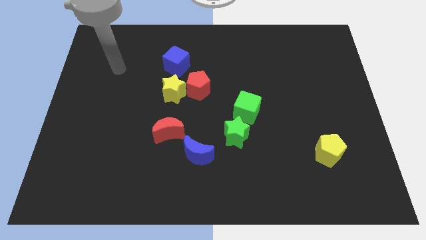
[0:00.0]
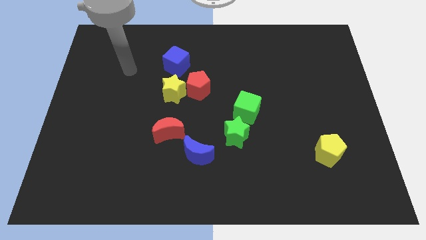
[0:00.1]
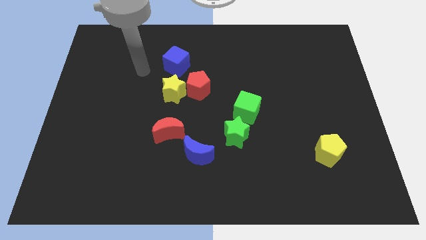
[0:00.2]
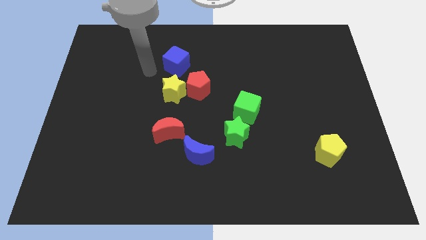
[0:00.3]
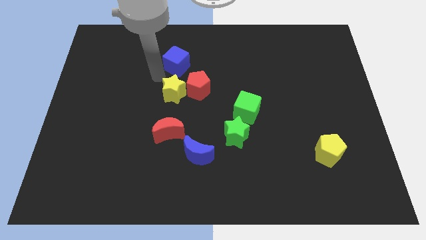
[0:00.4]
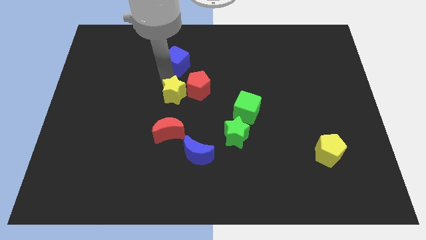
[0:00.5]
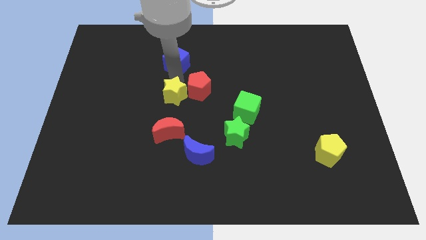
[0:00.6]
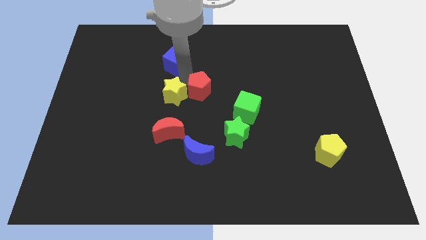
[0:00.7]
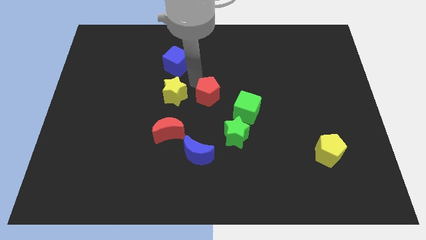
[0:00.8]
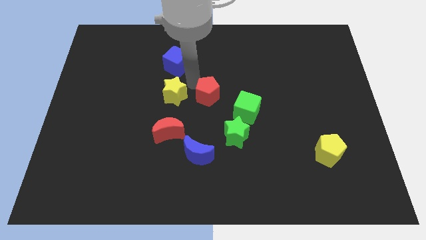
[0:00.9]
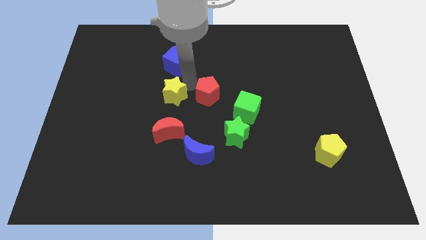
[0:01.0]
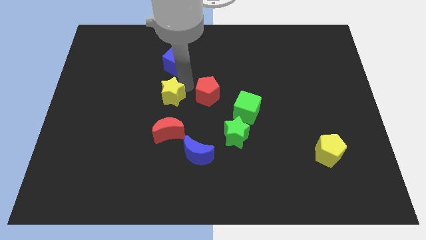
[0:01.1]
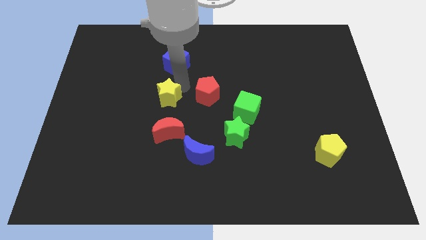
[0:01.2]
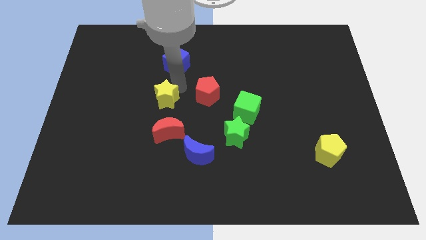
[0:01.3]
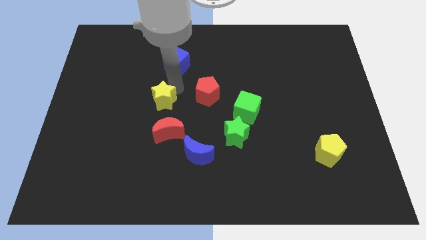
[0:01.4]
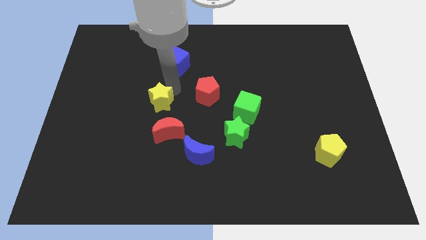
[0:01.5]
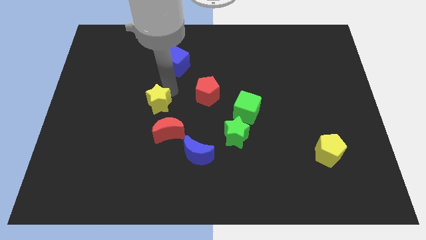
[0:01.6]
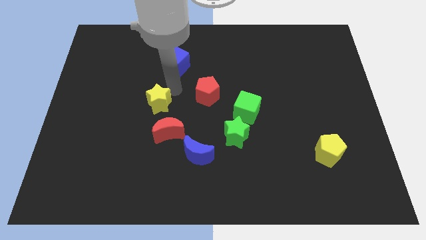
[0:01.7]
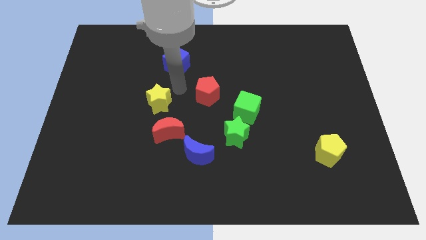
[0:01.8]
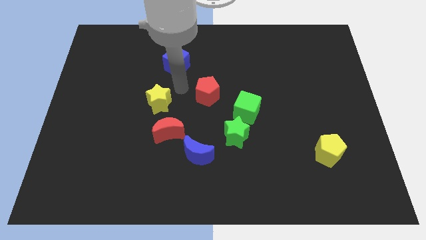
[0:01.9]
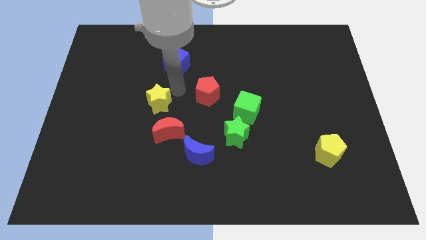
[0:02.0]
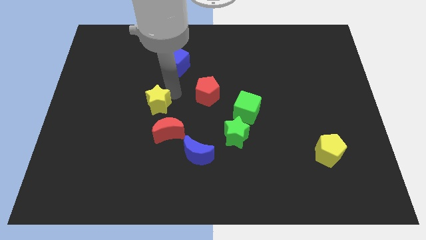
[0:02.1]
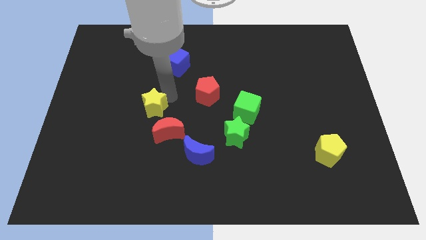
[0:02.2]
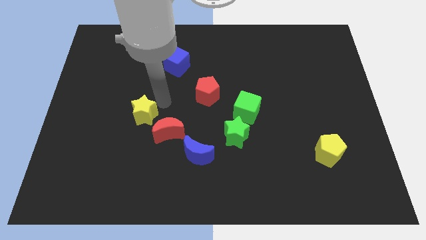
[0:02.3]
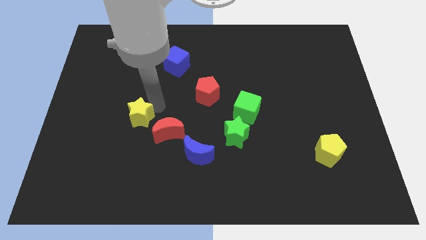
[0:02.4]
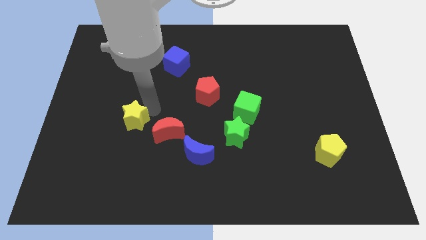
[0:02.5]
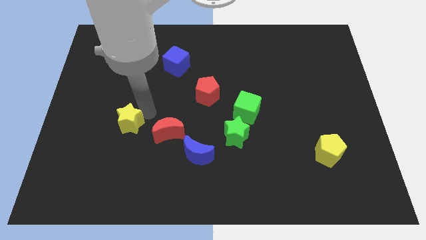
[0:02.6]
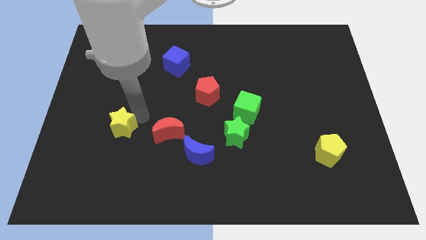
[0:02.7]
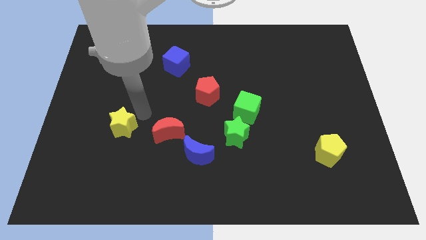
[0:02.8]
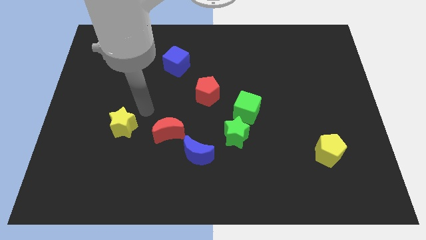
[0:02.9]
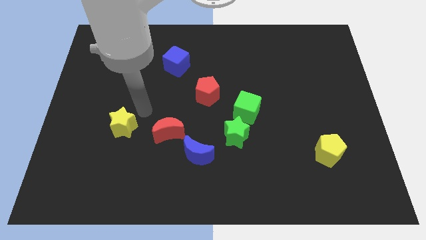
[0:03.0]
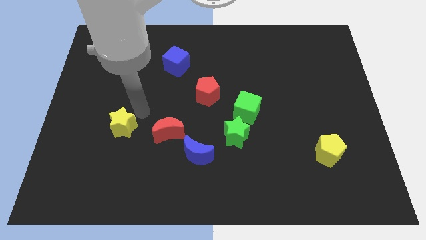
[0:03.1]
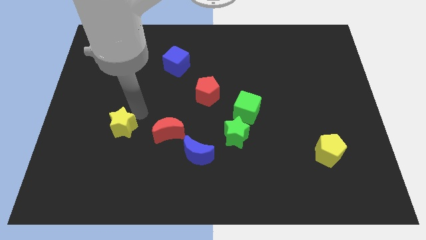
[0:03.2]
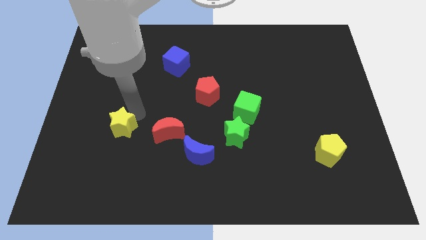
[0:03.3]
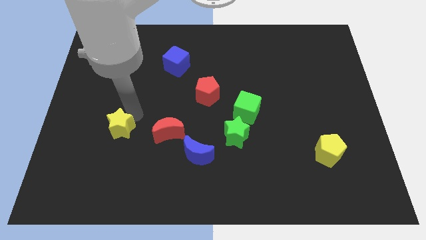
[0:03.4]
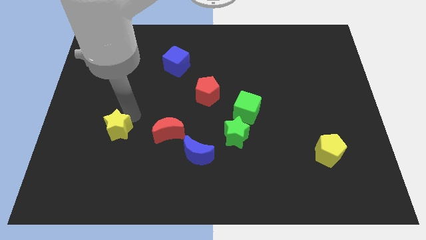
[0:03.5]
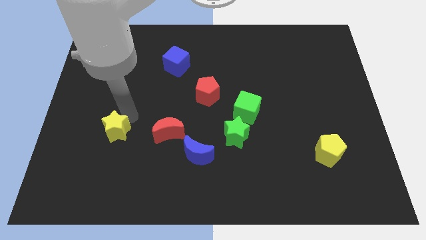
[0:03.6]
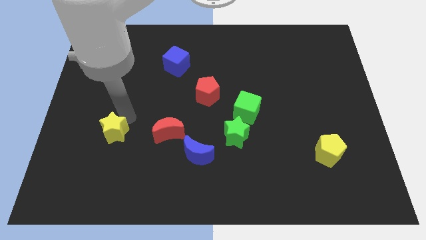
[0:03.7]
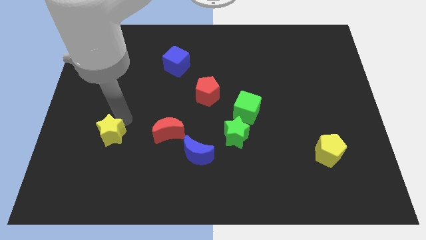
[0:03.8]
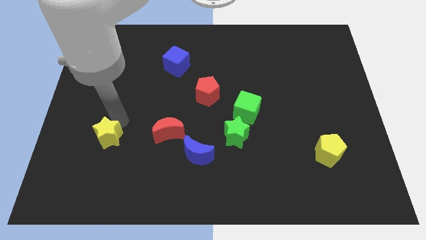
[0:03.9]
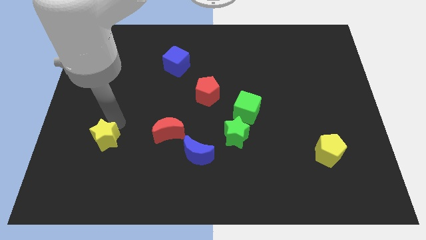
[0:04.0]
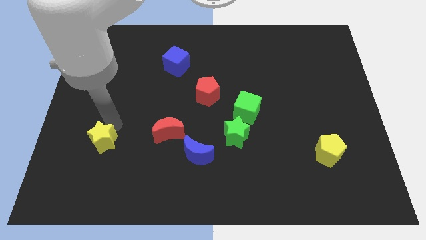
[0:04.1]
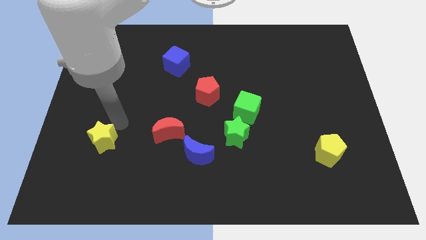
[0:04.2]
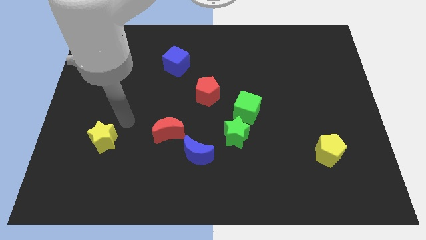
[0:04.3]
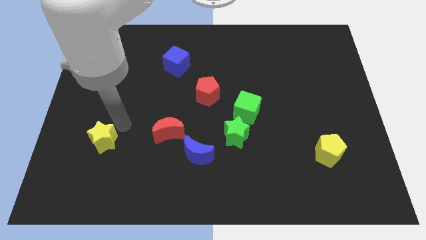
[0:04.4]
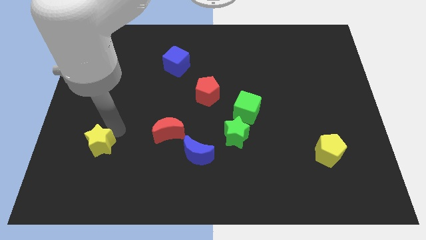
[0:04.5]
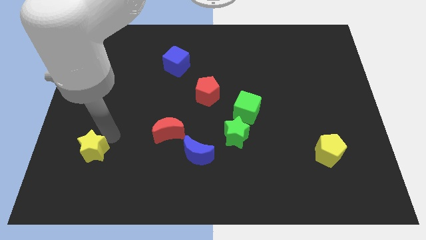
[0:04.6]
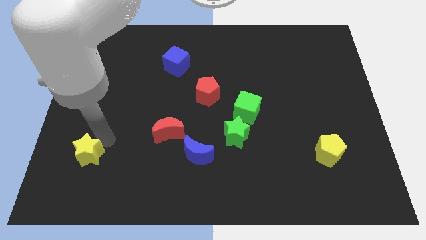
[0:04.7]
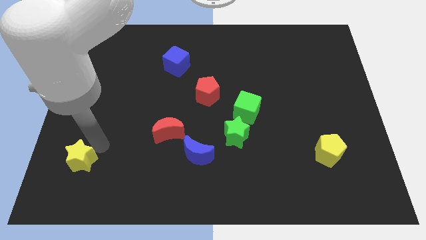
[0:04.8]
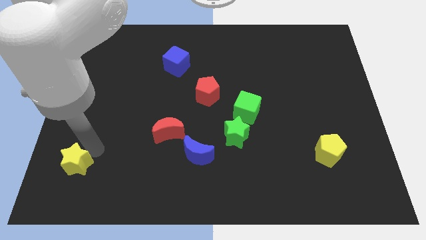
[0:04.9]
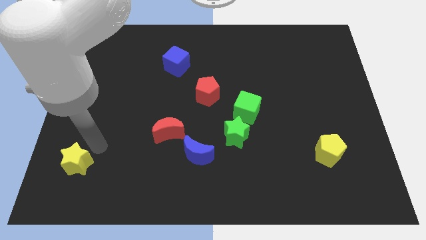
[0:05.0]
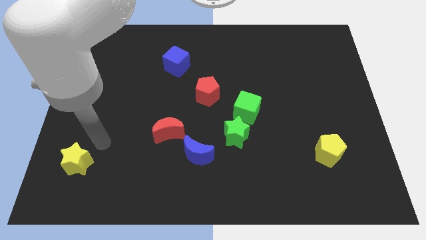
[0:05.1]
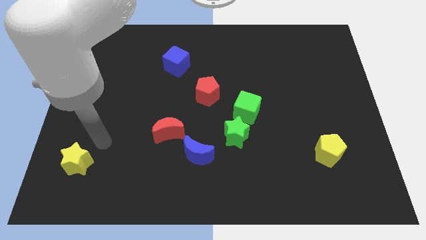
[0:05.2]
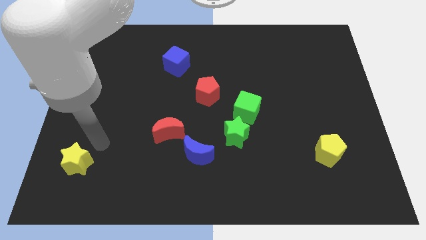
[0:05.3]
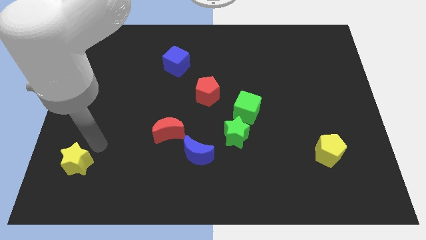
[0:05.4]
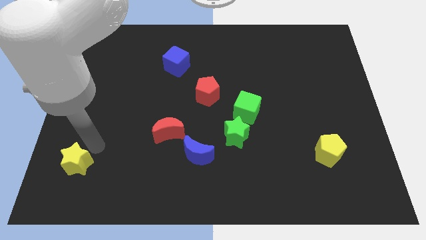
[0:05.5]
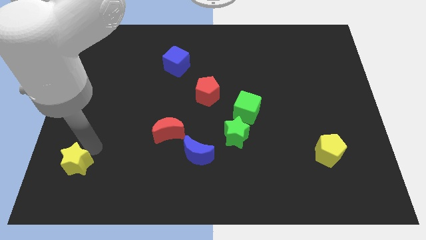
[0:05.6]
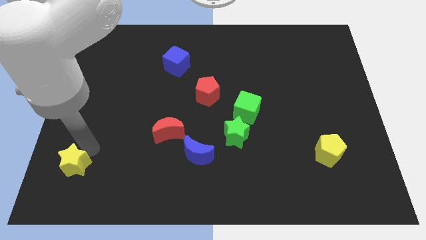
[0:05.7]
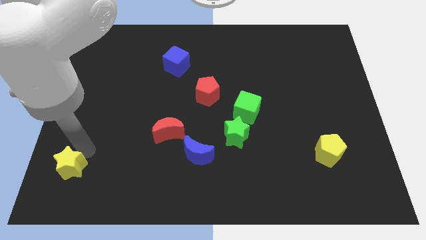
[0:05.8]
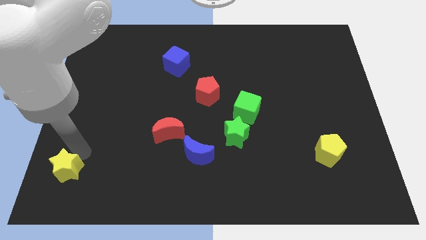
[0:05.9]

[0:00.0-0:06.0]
move the yellow star to the bottom left
